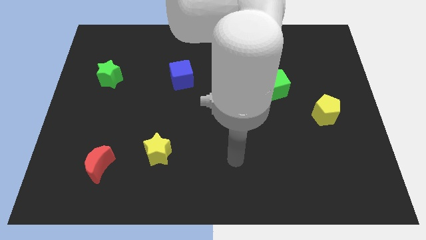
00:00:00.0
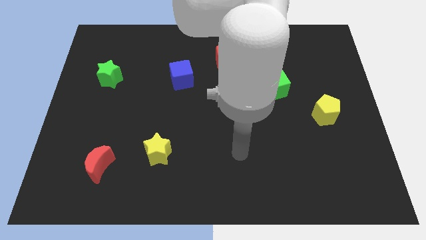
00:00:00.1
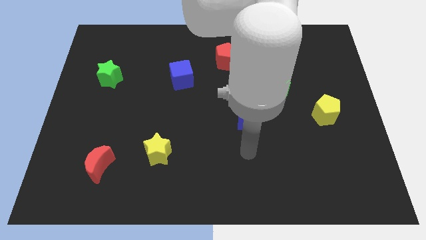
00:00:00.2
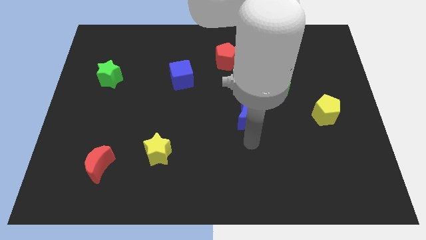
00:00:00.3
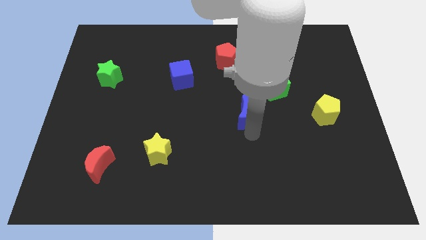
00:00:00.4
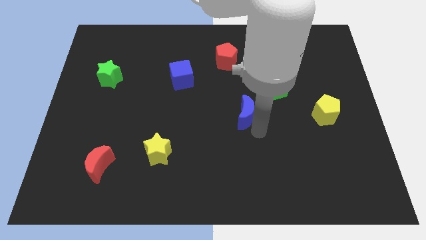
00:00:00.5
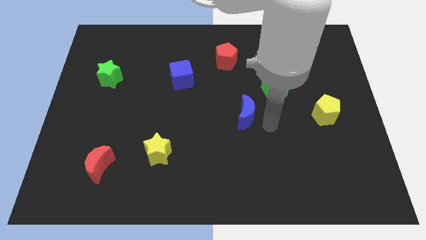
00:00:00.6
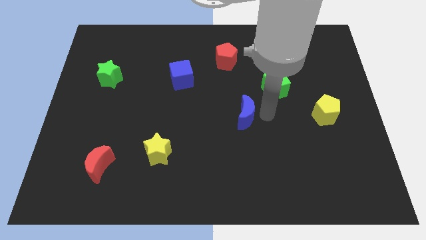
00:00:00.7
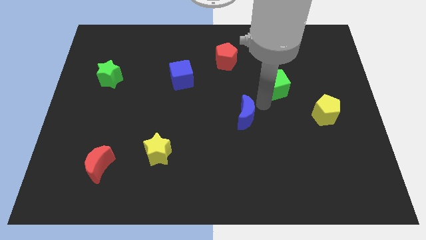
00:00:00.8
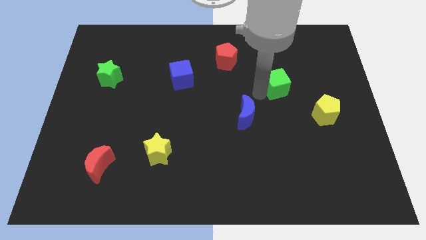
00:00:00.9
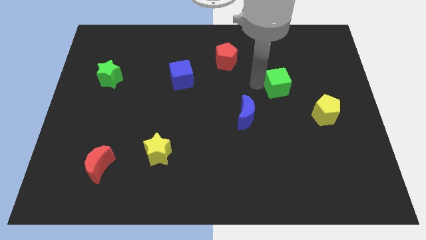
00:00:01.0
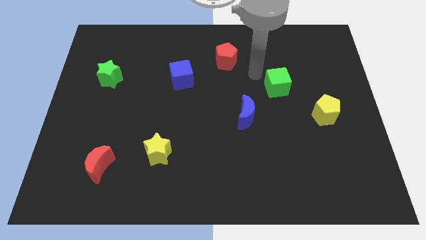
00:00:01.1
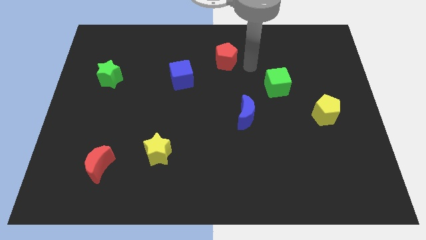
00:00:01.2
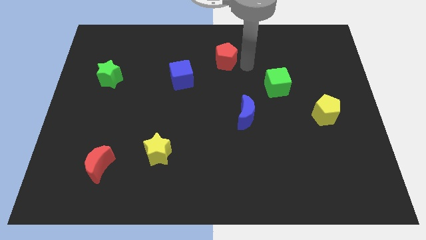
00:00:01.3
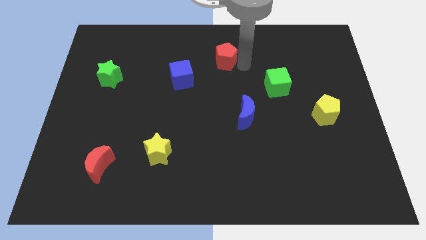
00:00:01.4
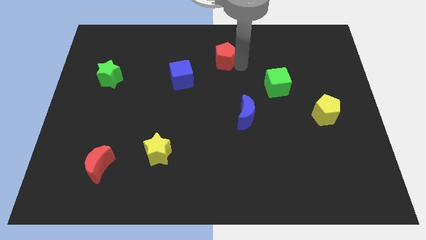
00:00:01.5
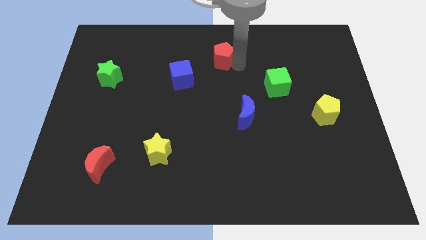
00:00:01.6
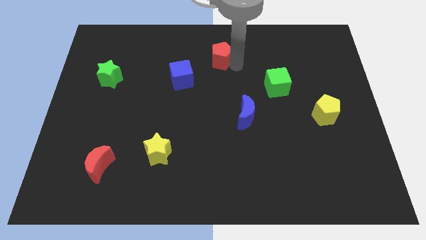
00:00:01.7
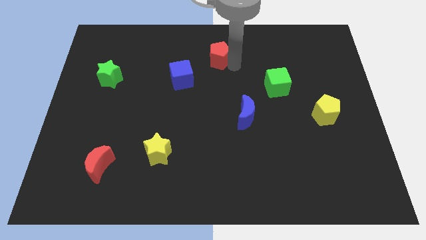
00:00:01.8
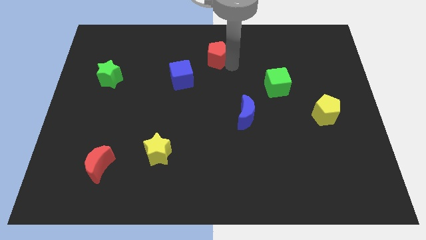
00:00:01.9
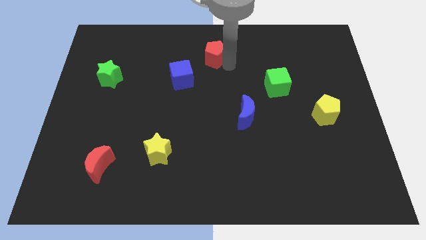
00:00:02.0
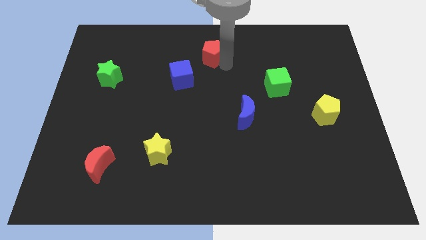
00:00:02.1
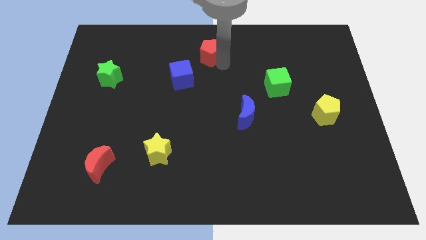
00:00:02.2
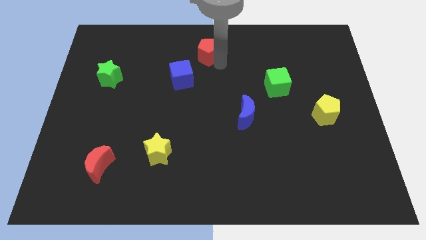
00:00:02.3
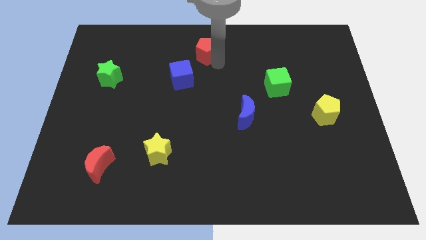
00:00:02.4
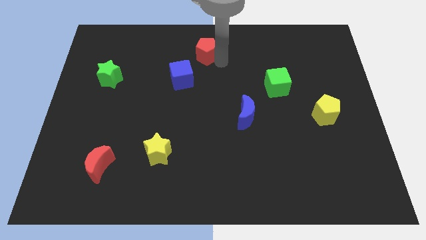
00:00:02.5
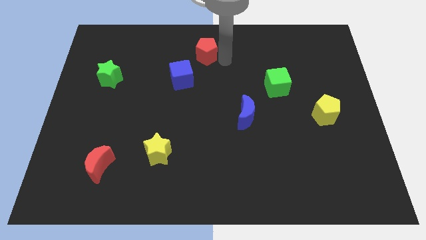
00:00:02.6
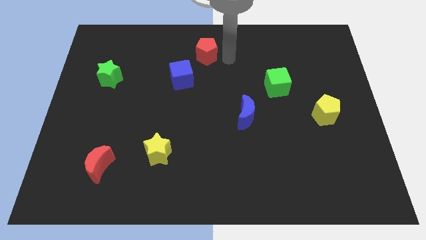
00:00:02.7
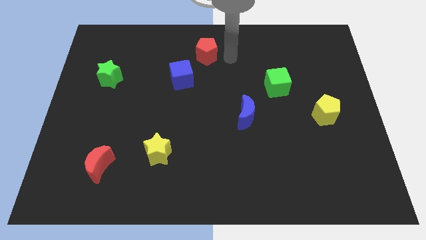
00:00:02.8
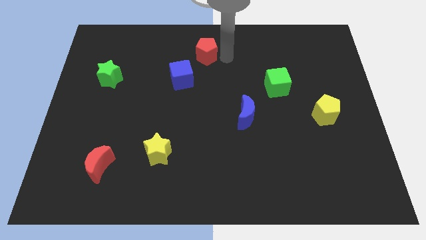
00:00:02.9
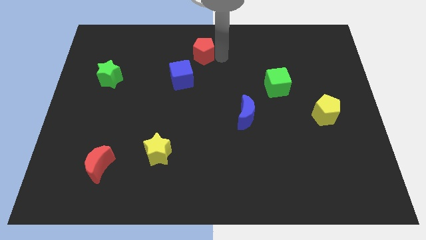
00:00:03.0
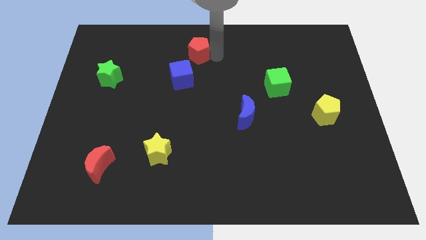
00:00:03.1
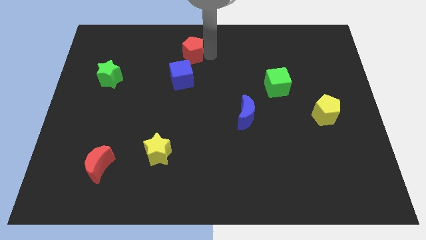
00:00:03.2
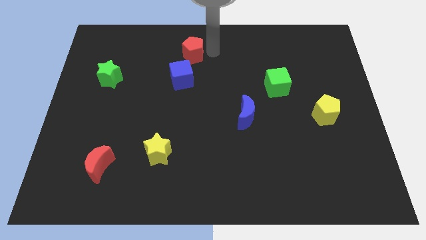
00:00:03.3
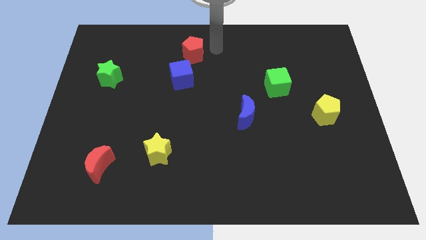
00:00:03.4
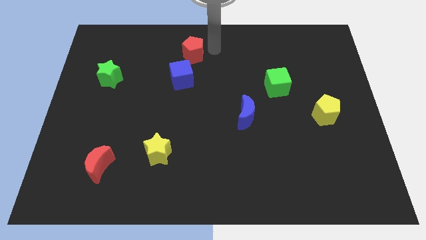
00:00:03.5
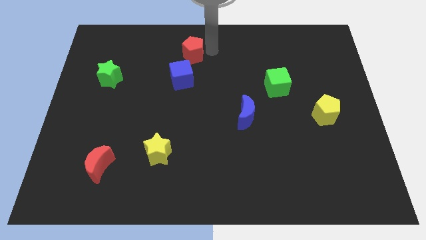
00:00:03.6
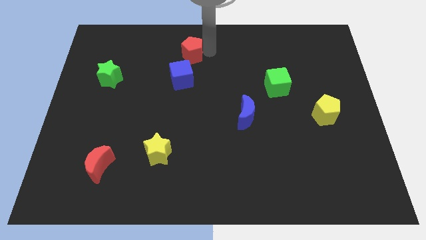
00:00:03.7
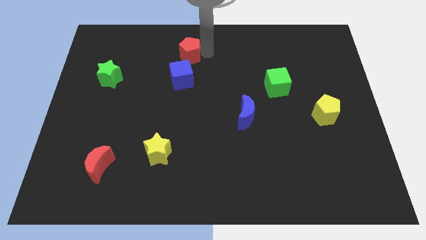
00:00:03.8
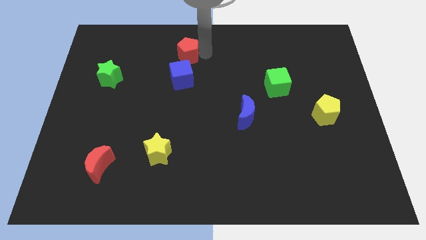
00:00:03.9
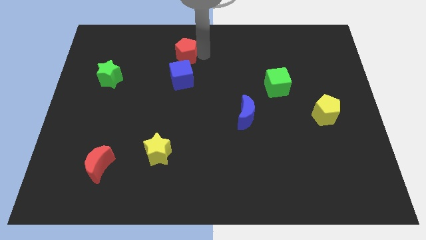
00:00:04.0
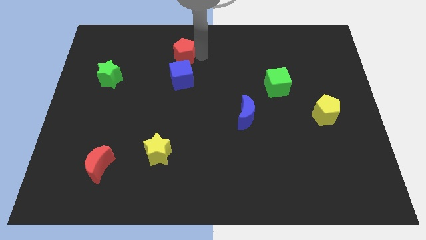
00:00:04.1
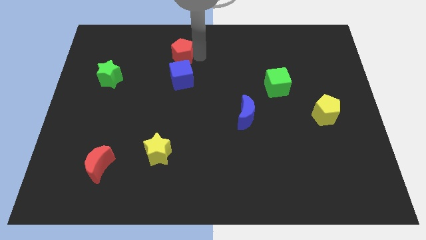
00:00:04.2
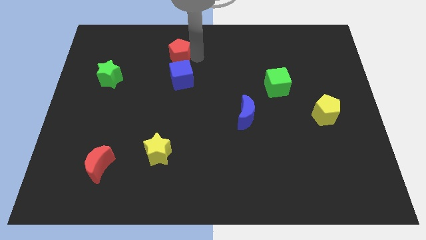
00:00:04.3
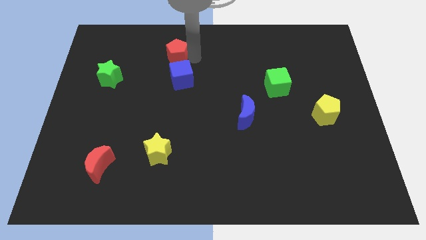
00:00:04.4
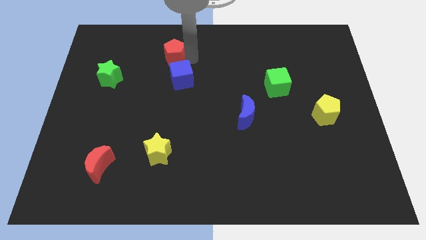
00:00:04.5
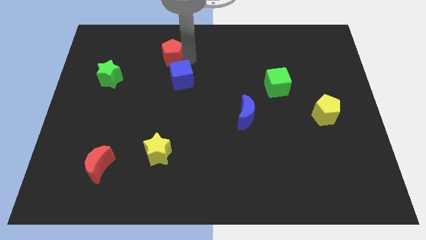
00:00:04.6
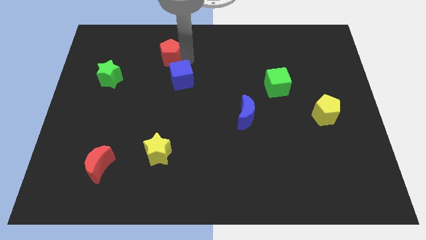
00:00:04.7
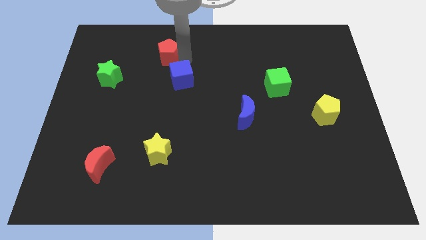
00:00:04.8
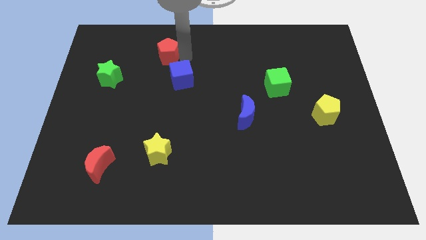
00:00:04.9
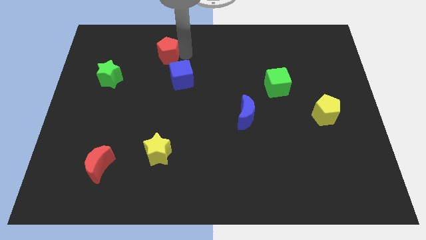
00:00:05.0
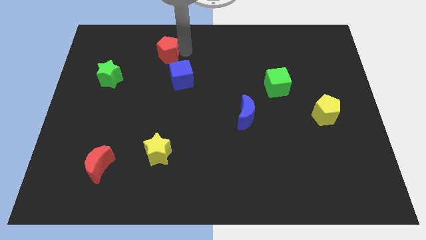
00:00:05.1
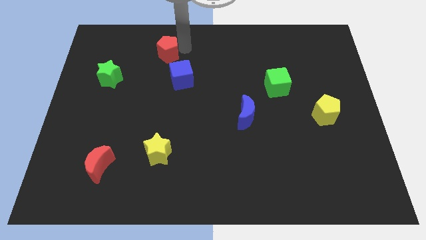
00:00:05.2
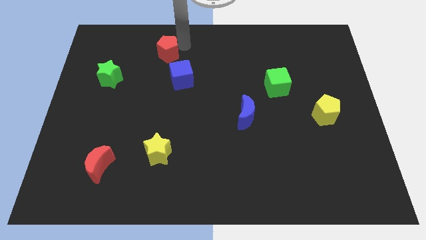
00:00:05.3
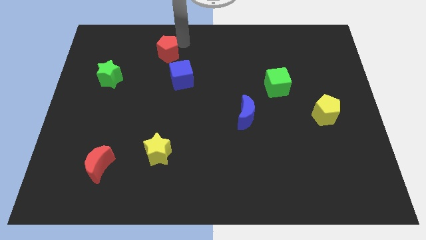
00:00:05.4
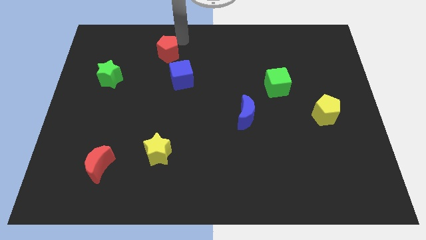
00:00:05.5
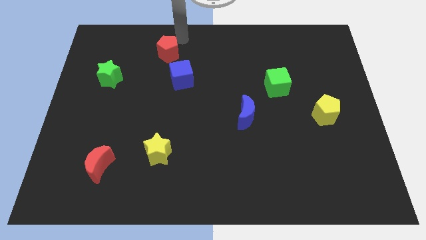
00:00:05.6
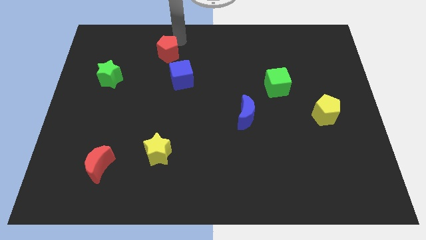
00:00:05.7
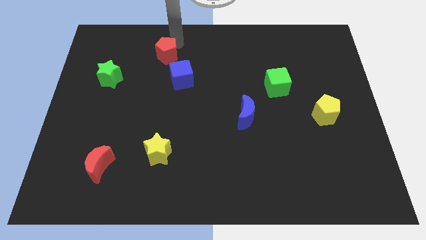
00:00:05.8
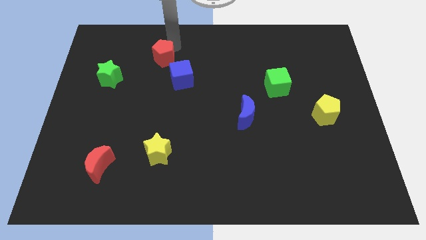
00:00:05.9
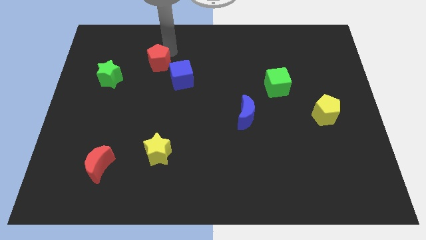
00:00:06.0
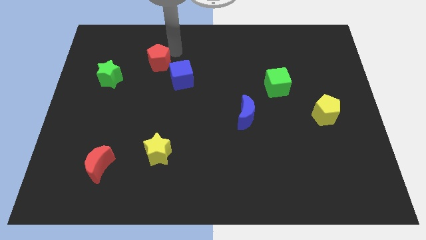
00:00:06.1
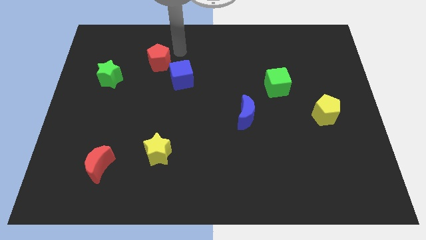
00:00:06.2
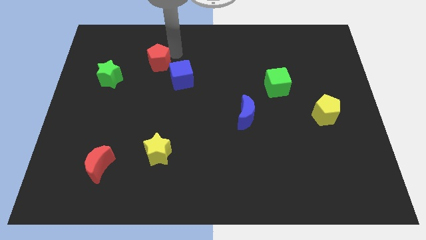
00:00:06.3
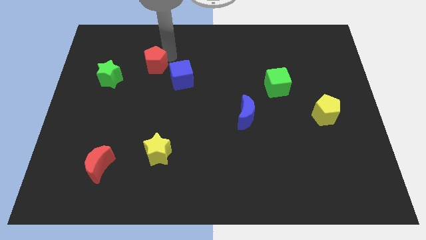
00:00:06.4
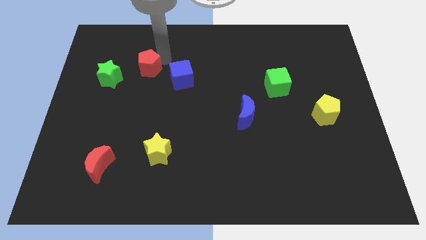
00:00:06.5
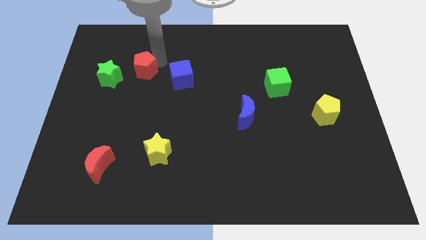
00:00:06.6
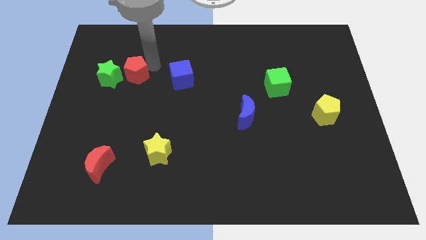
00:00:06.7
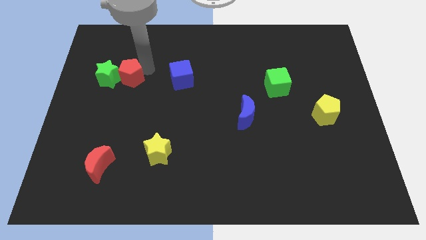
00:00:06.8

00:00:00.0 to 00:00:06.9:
put the red pentagon close to the green star
